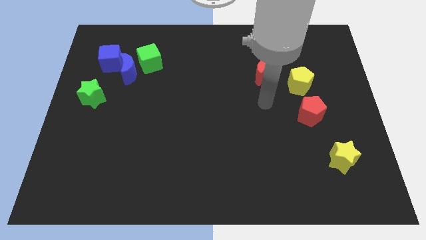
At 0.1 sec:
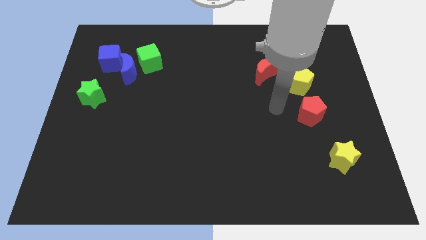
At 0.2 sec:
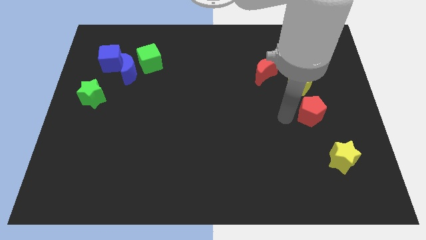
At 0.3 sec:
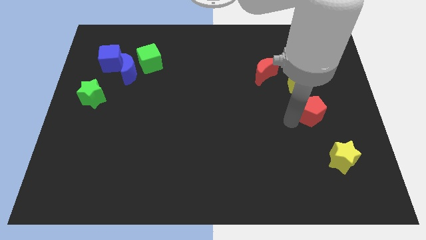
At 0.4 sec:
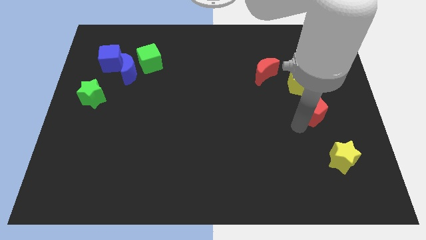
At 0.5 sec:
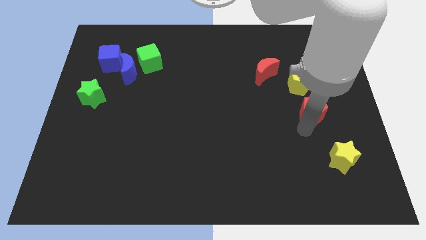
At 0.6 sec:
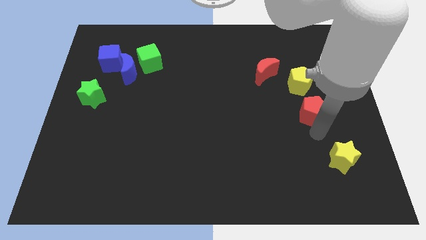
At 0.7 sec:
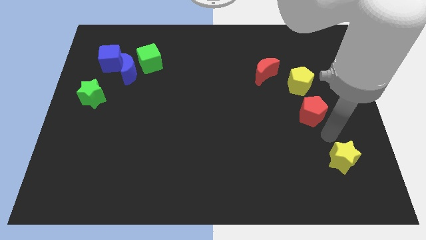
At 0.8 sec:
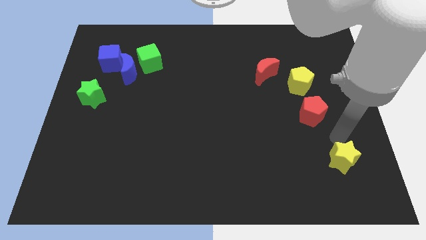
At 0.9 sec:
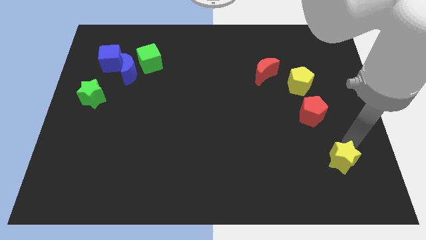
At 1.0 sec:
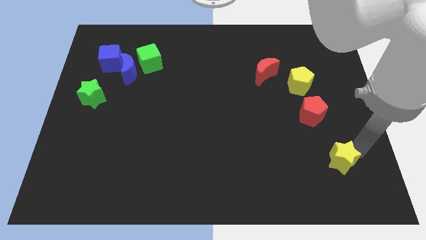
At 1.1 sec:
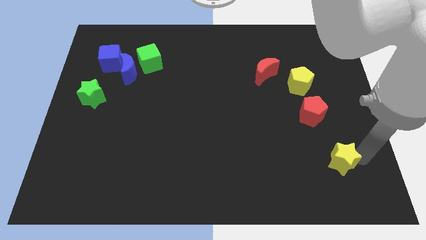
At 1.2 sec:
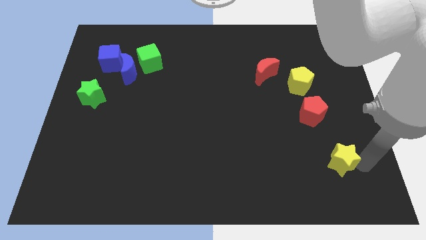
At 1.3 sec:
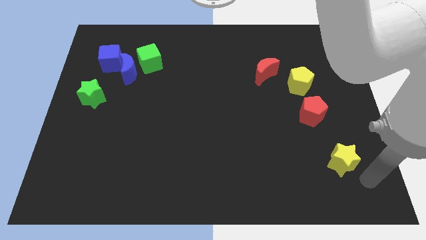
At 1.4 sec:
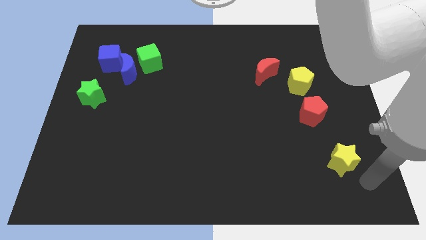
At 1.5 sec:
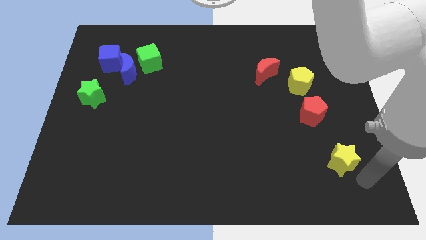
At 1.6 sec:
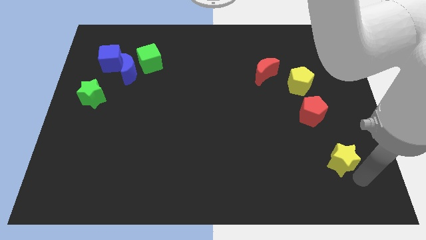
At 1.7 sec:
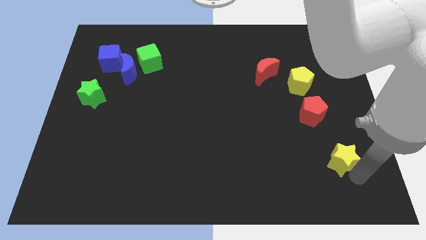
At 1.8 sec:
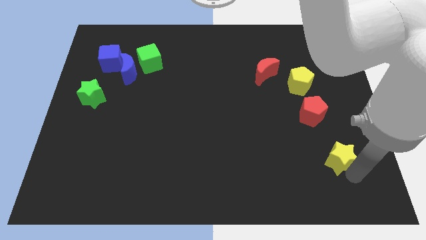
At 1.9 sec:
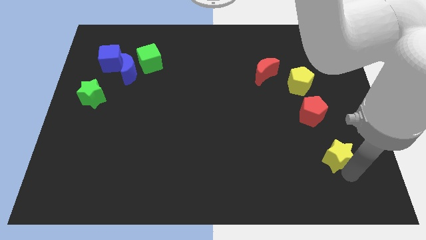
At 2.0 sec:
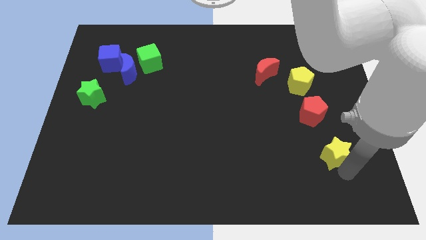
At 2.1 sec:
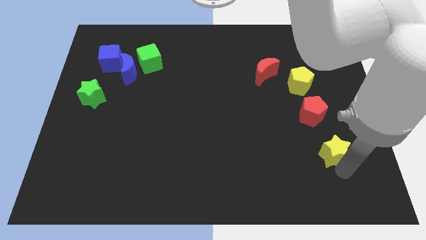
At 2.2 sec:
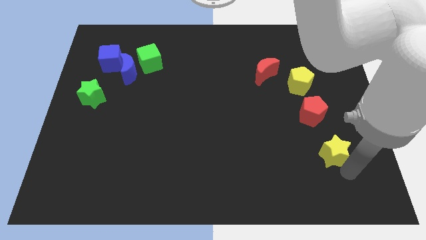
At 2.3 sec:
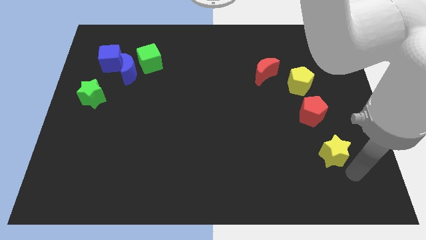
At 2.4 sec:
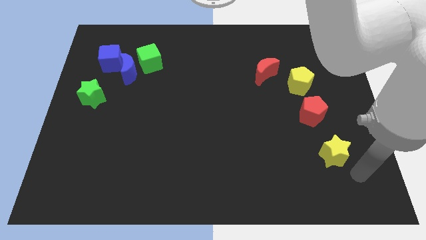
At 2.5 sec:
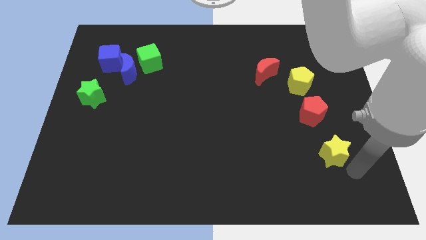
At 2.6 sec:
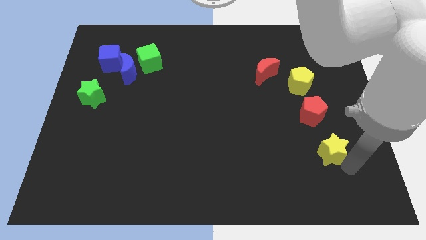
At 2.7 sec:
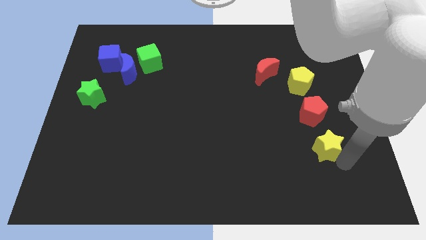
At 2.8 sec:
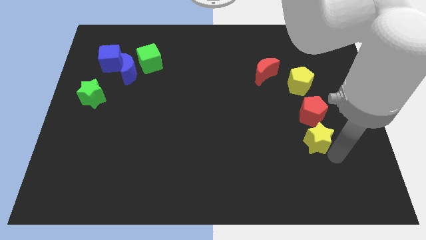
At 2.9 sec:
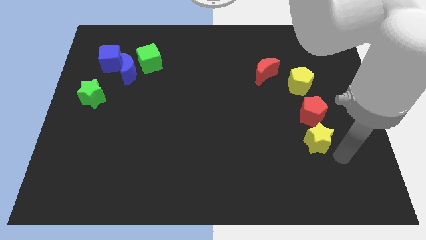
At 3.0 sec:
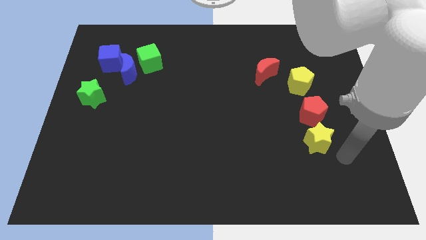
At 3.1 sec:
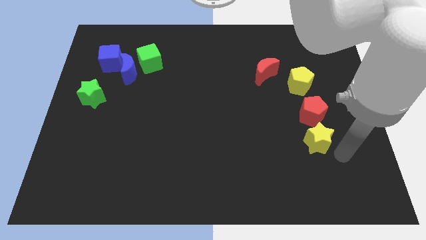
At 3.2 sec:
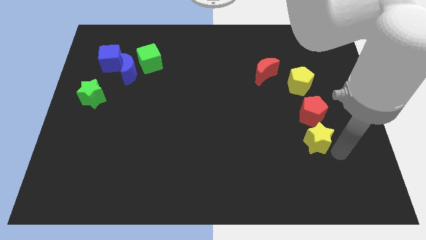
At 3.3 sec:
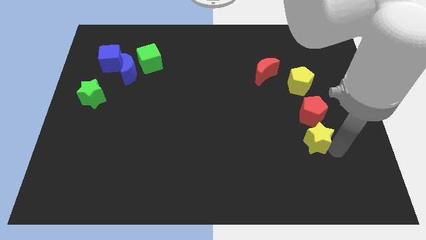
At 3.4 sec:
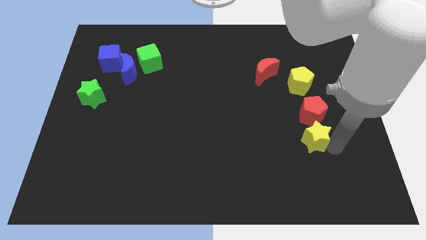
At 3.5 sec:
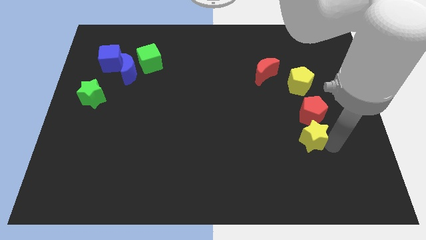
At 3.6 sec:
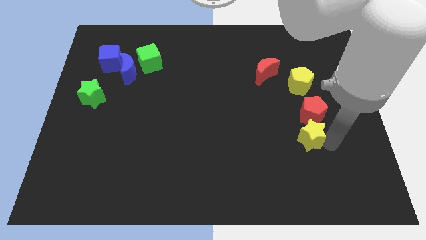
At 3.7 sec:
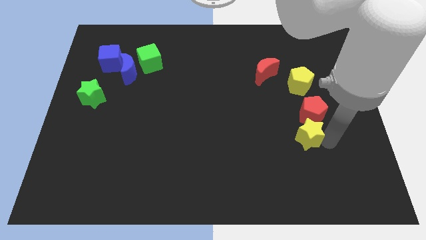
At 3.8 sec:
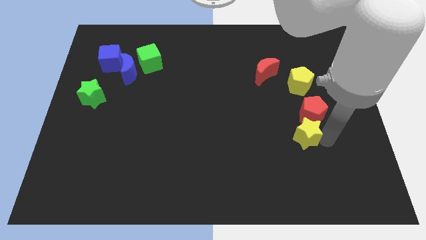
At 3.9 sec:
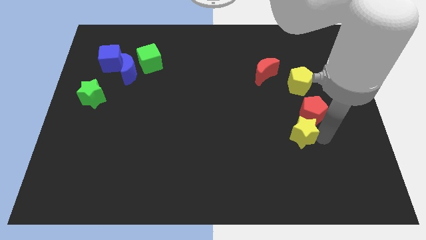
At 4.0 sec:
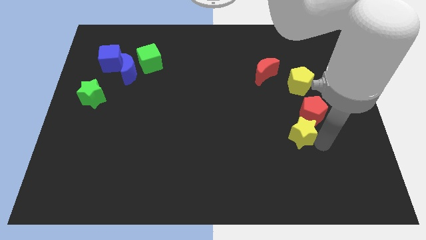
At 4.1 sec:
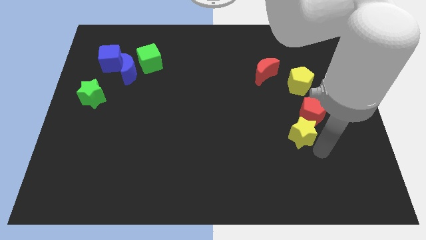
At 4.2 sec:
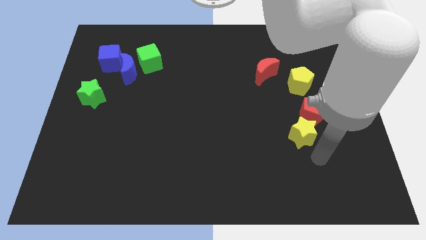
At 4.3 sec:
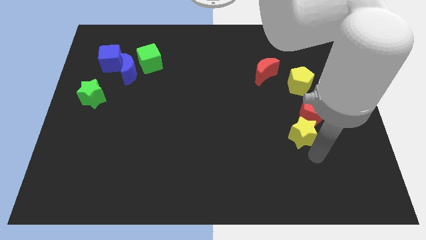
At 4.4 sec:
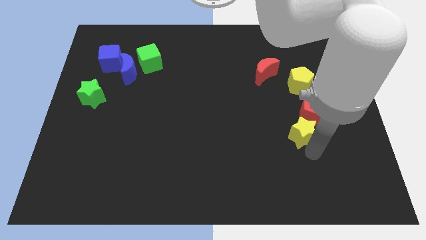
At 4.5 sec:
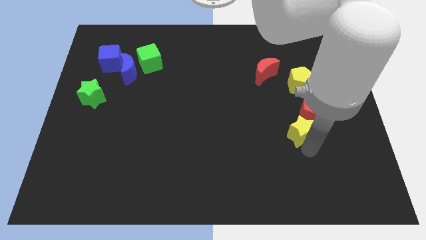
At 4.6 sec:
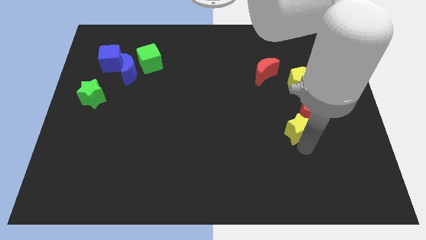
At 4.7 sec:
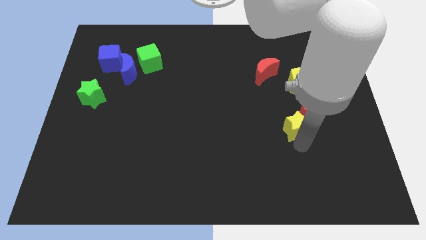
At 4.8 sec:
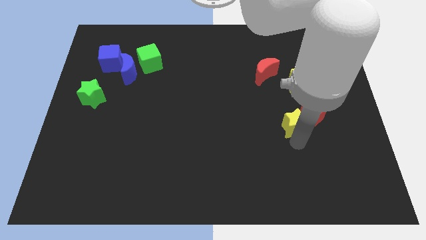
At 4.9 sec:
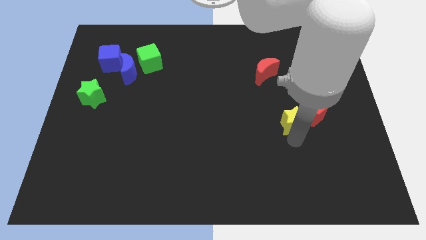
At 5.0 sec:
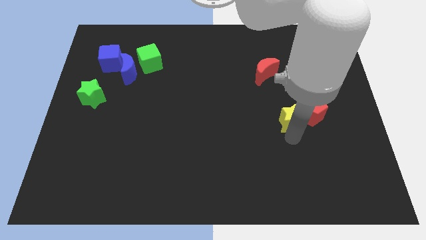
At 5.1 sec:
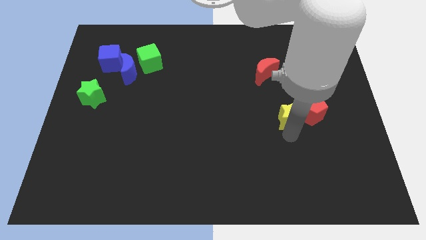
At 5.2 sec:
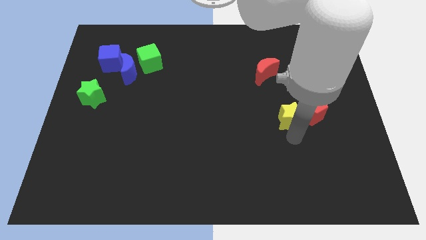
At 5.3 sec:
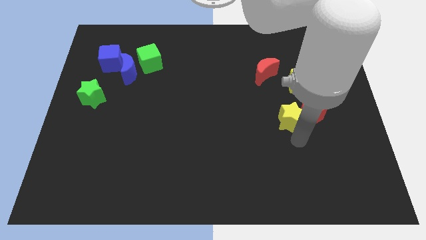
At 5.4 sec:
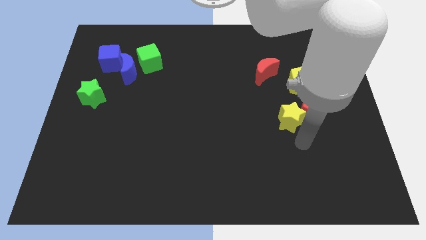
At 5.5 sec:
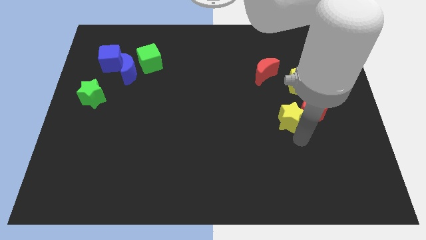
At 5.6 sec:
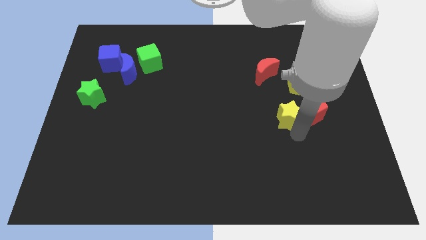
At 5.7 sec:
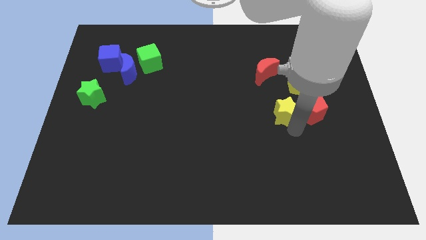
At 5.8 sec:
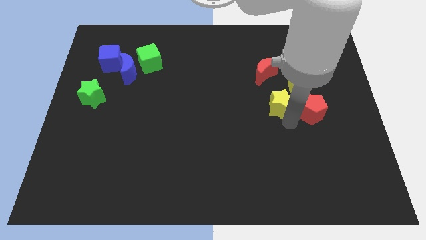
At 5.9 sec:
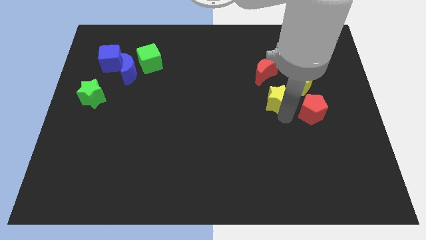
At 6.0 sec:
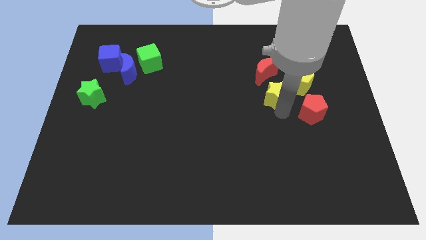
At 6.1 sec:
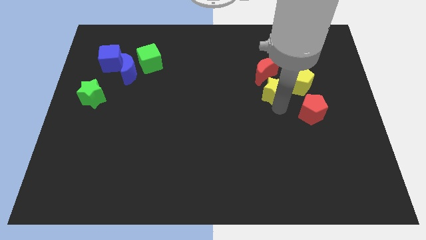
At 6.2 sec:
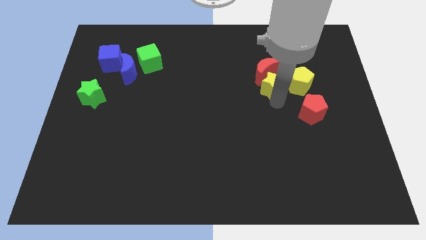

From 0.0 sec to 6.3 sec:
move the yellow star towards the red moon
